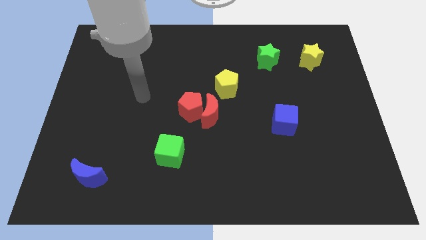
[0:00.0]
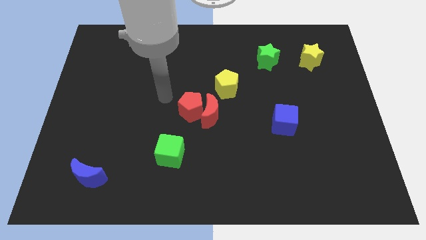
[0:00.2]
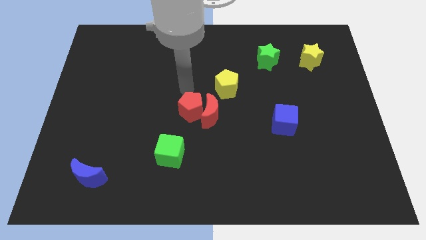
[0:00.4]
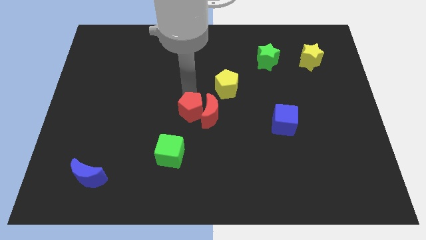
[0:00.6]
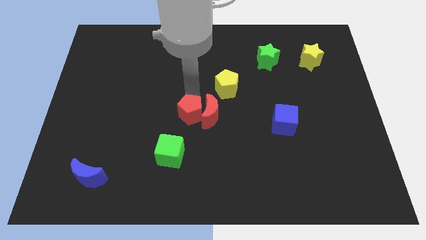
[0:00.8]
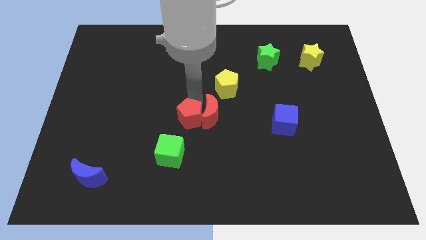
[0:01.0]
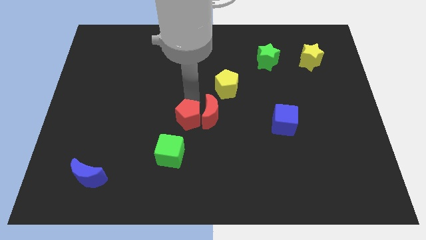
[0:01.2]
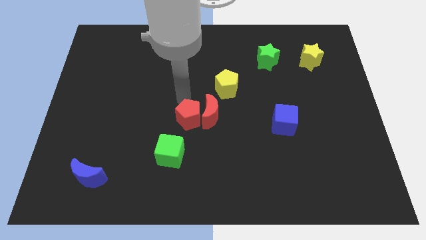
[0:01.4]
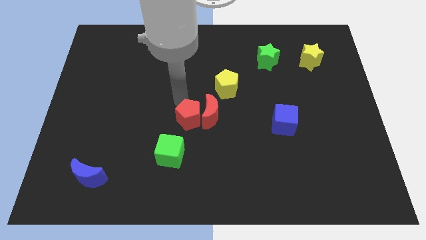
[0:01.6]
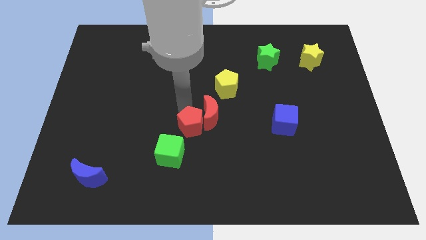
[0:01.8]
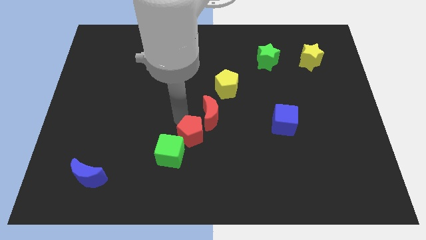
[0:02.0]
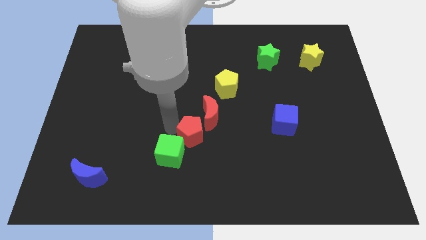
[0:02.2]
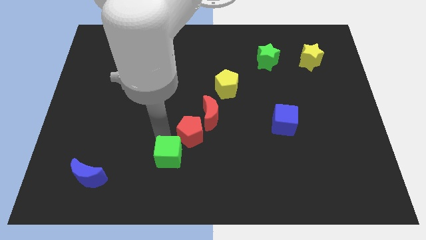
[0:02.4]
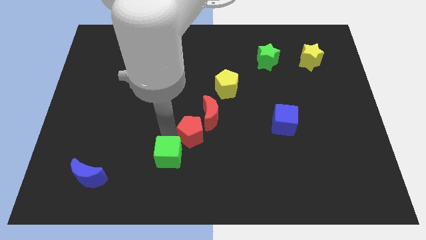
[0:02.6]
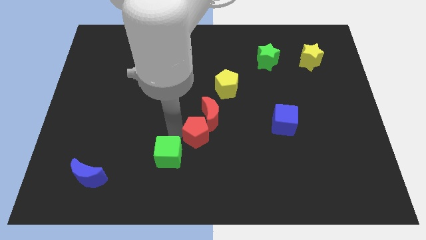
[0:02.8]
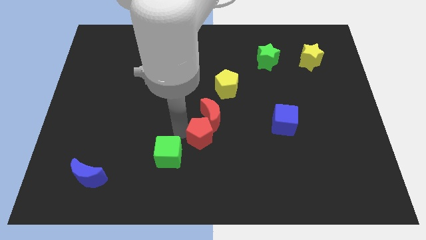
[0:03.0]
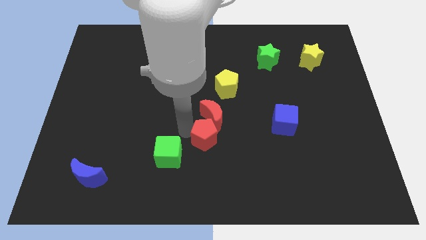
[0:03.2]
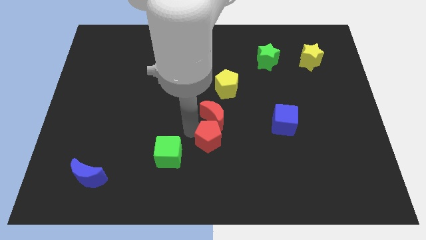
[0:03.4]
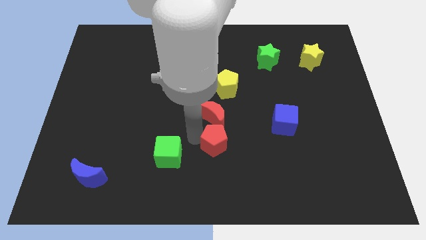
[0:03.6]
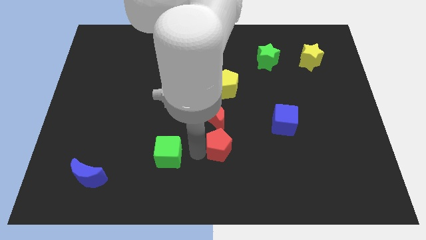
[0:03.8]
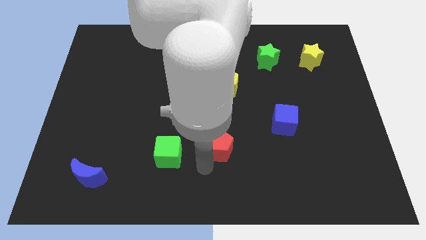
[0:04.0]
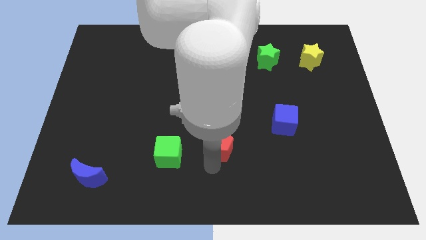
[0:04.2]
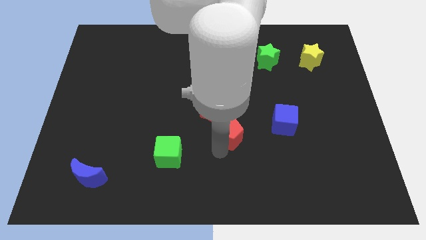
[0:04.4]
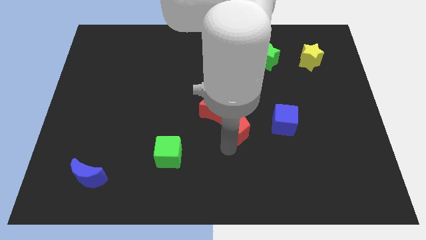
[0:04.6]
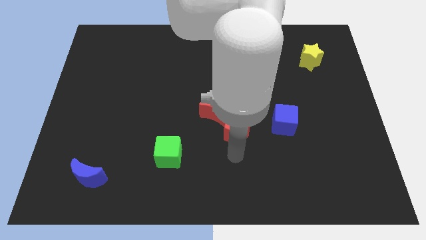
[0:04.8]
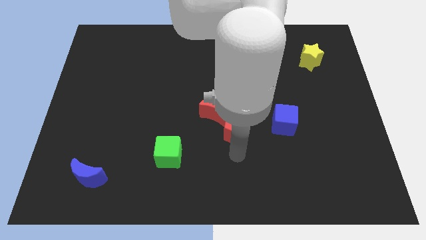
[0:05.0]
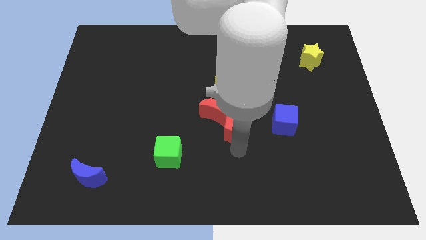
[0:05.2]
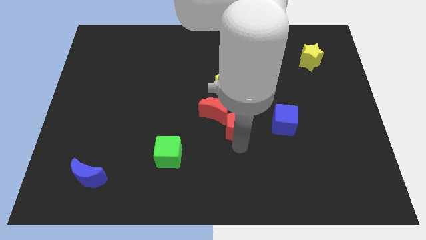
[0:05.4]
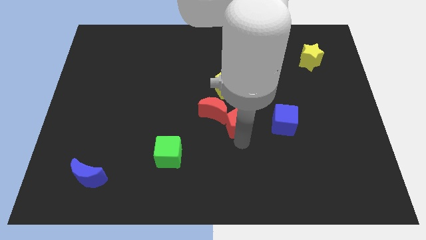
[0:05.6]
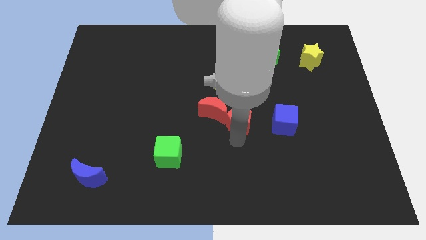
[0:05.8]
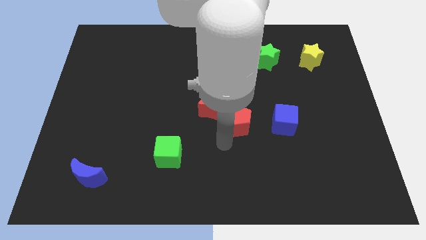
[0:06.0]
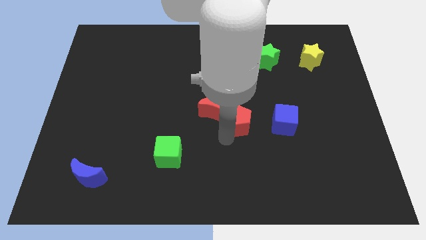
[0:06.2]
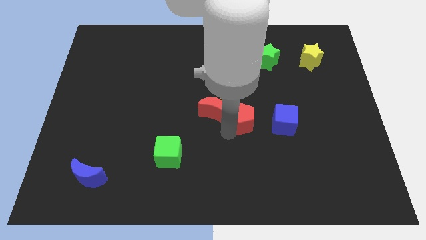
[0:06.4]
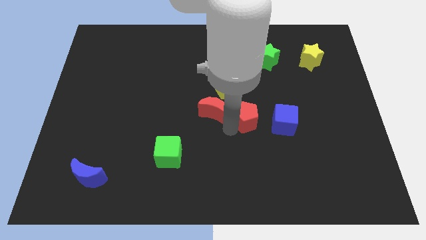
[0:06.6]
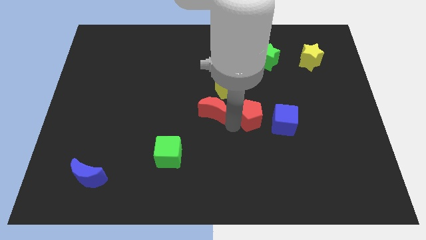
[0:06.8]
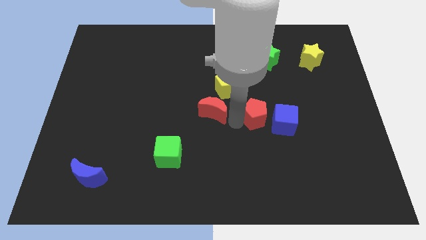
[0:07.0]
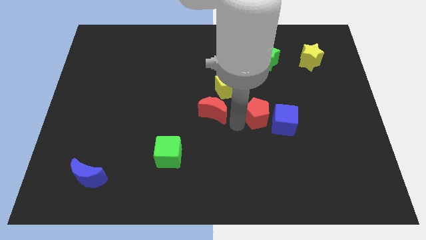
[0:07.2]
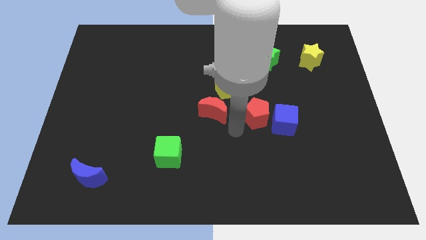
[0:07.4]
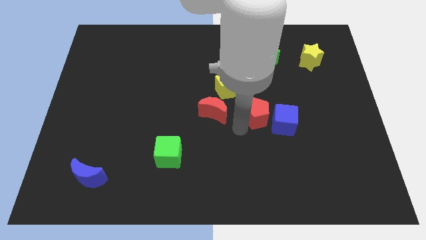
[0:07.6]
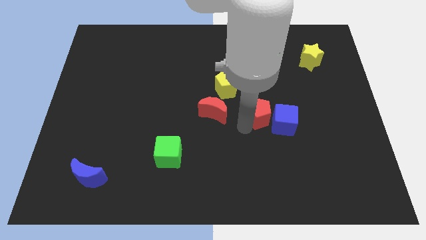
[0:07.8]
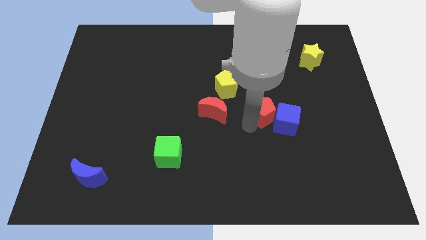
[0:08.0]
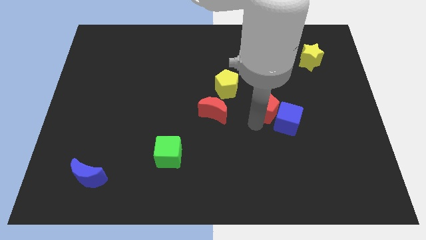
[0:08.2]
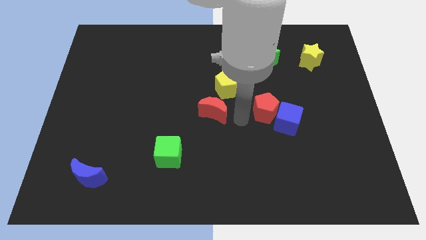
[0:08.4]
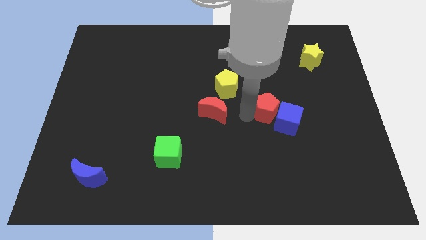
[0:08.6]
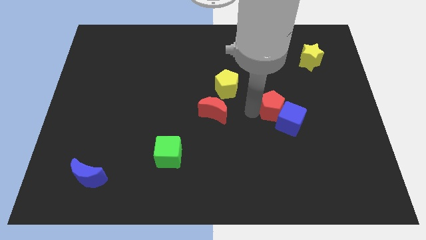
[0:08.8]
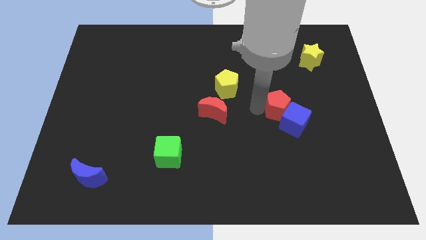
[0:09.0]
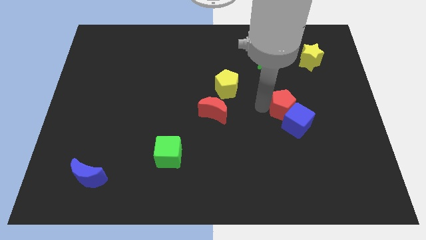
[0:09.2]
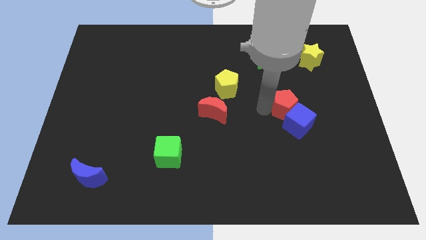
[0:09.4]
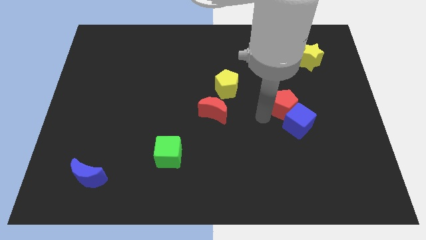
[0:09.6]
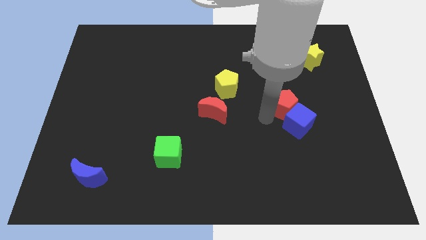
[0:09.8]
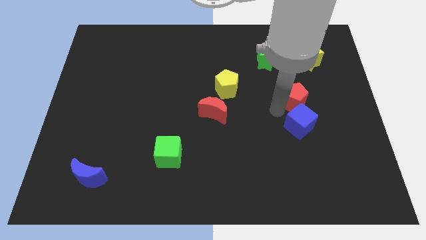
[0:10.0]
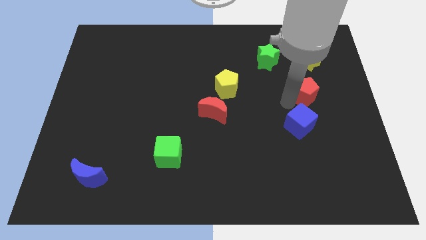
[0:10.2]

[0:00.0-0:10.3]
move the red pentagon to the bottom of the yellow star

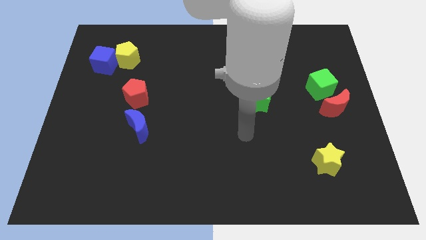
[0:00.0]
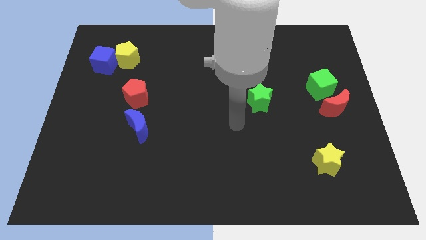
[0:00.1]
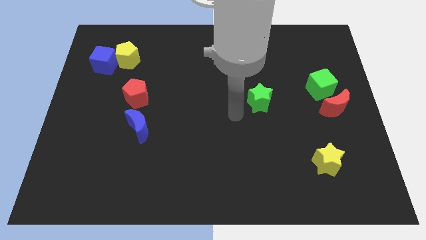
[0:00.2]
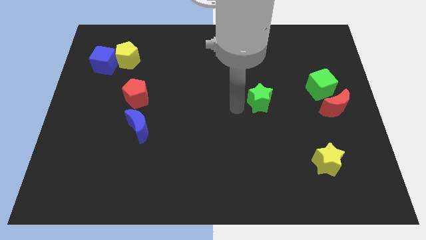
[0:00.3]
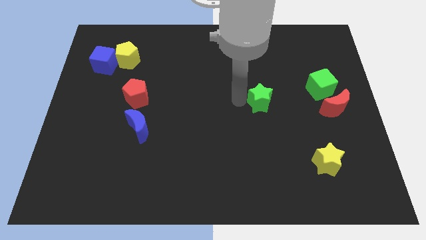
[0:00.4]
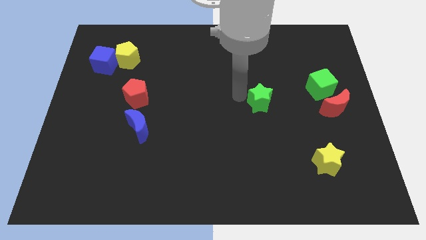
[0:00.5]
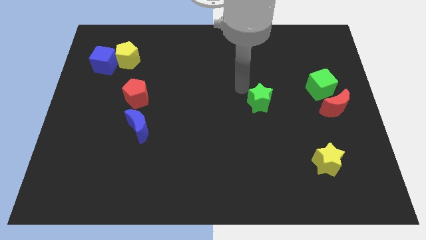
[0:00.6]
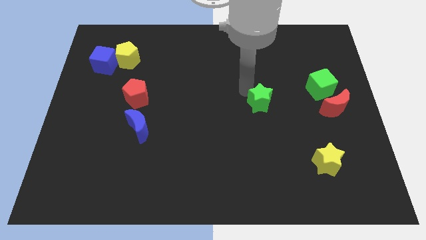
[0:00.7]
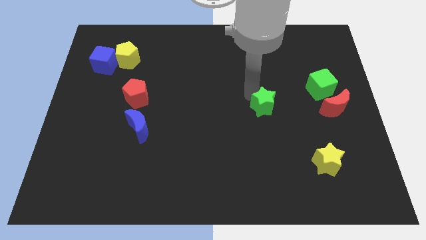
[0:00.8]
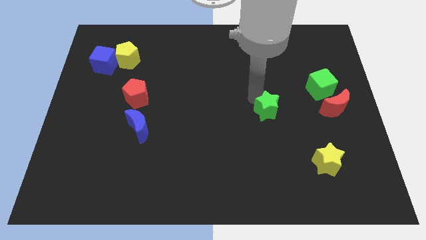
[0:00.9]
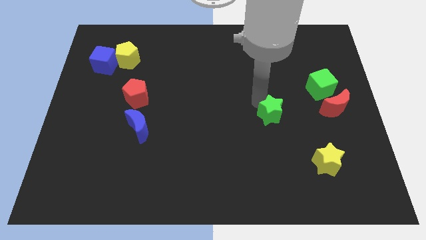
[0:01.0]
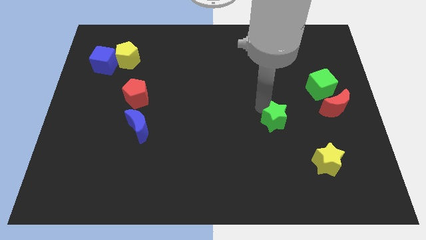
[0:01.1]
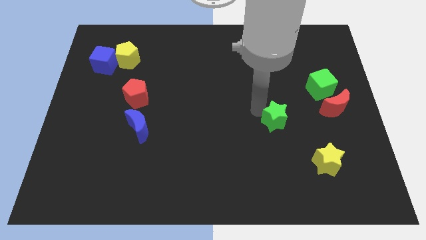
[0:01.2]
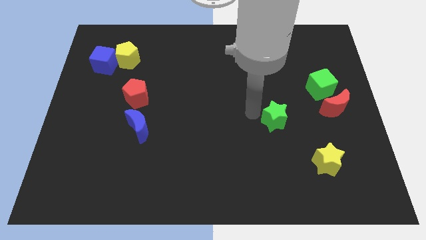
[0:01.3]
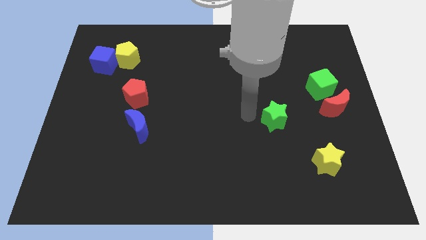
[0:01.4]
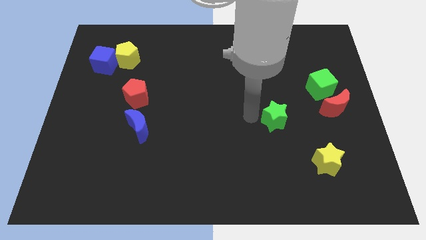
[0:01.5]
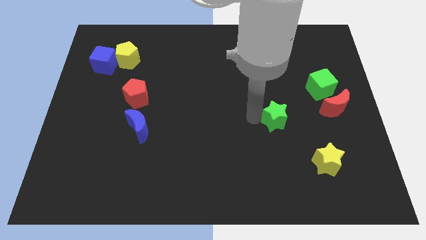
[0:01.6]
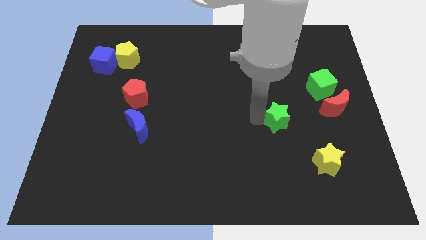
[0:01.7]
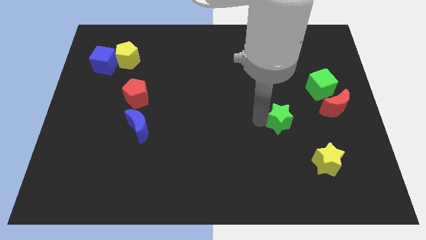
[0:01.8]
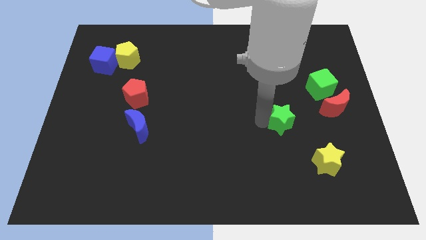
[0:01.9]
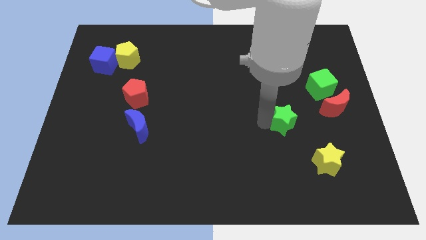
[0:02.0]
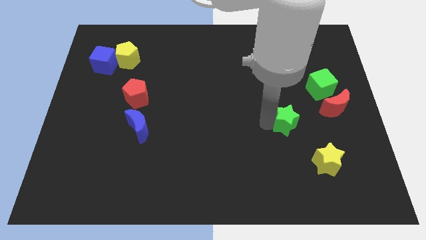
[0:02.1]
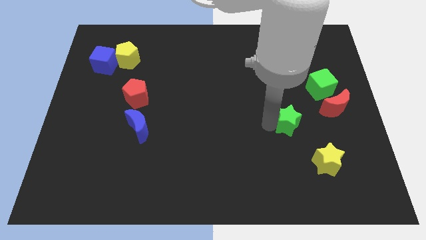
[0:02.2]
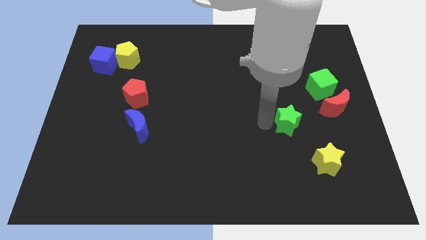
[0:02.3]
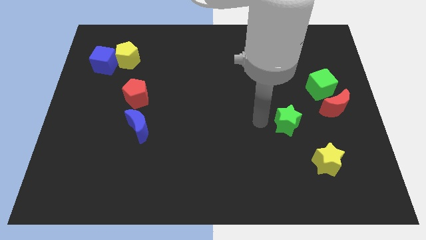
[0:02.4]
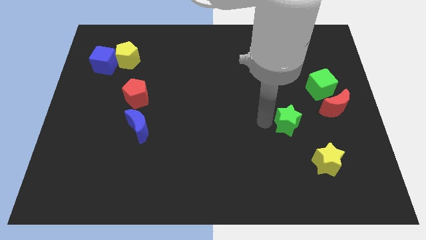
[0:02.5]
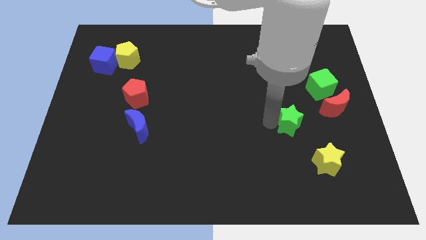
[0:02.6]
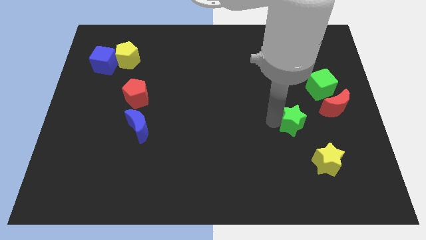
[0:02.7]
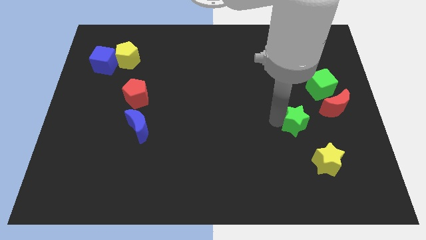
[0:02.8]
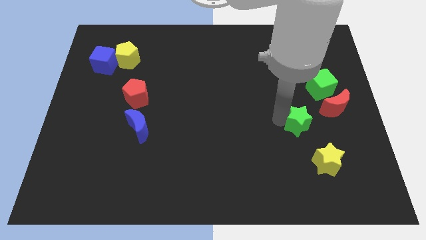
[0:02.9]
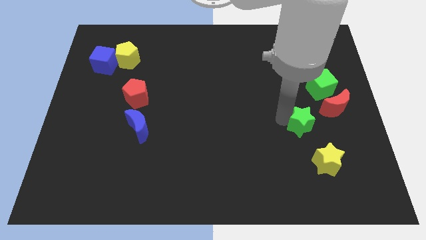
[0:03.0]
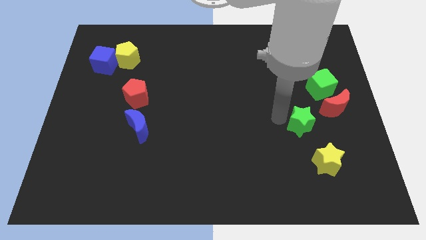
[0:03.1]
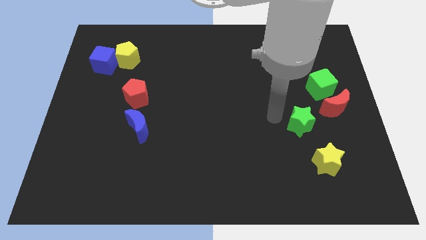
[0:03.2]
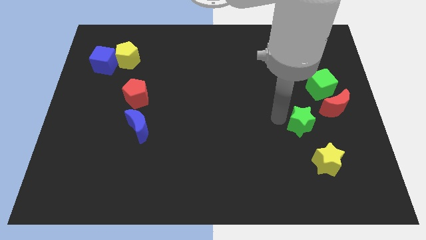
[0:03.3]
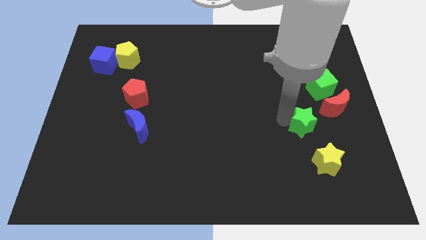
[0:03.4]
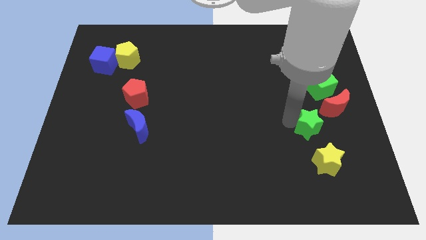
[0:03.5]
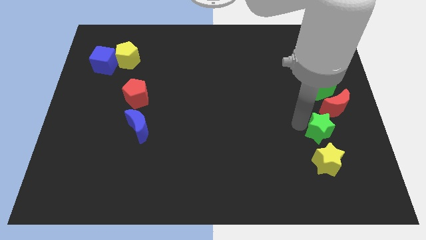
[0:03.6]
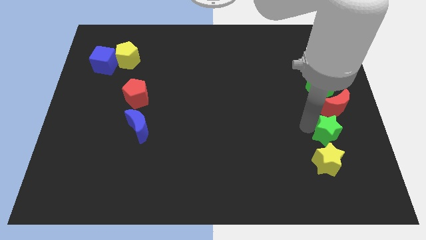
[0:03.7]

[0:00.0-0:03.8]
push the green star to the top right of the yellow star
